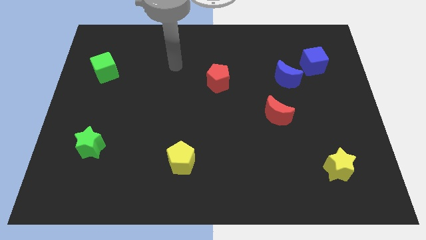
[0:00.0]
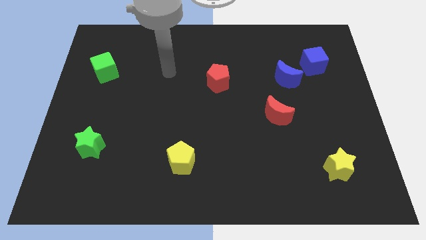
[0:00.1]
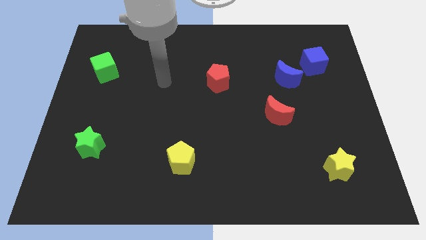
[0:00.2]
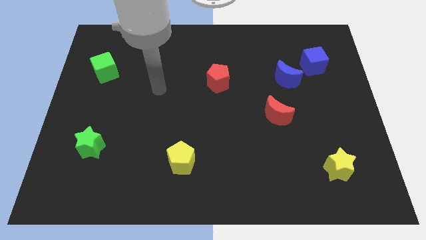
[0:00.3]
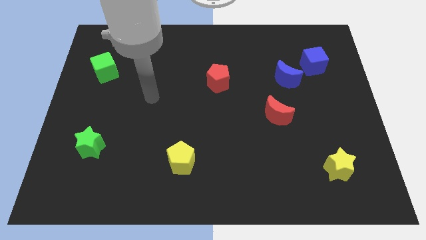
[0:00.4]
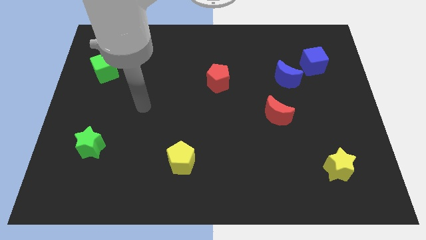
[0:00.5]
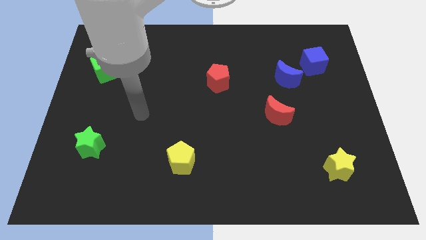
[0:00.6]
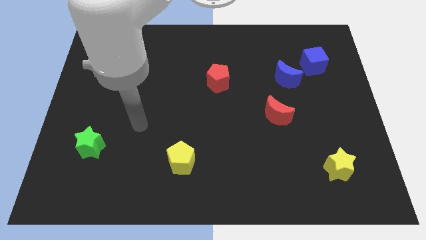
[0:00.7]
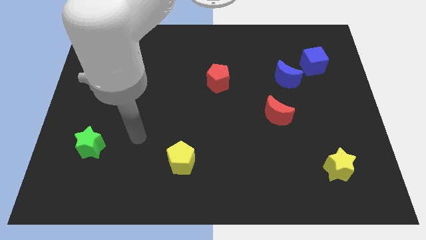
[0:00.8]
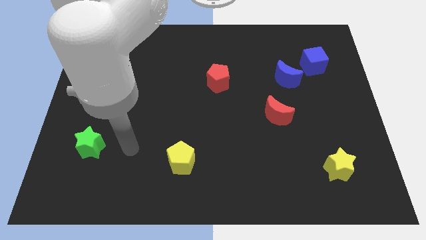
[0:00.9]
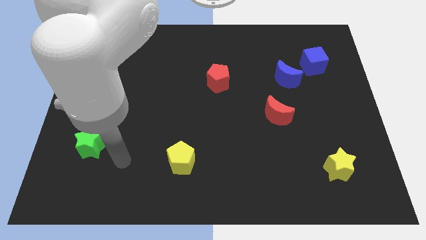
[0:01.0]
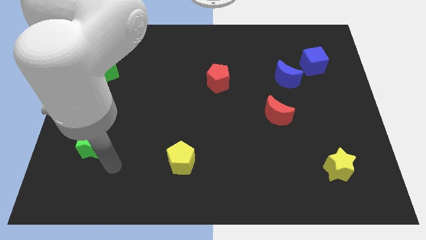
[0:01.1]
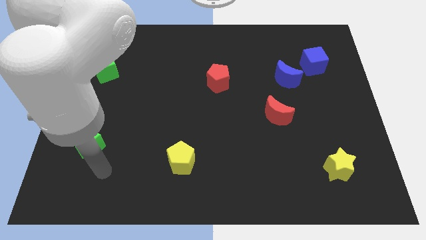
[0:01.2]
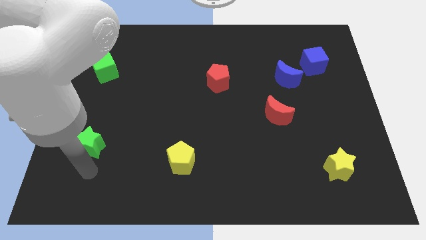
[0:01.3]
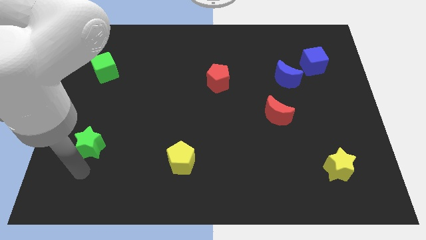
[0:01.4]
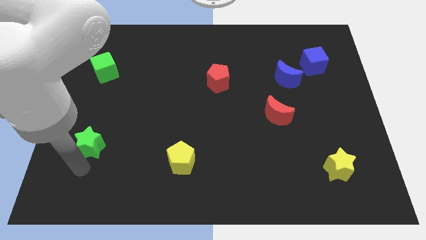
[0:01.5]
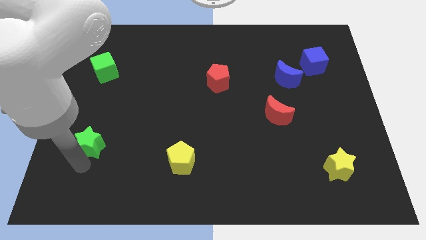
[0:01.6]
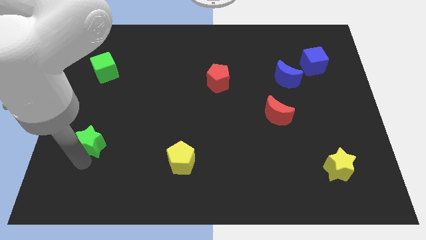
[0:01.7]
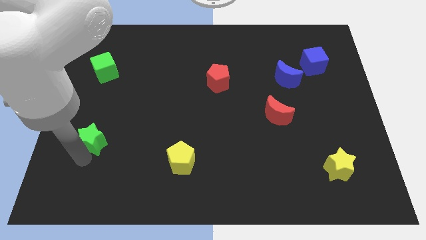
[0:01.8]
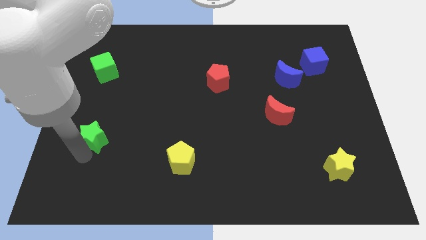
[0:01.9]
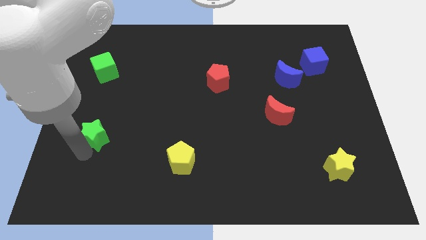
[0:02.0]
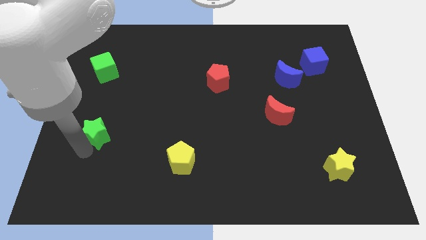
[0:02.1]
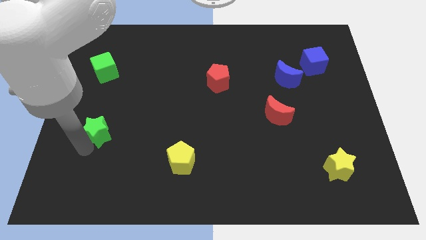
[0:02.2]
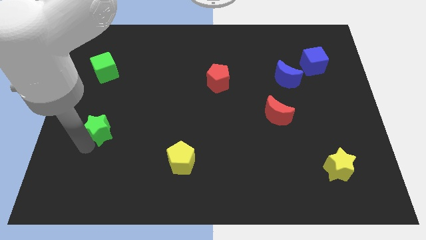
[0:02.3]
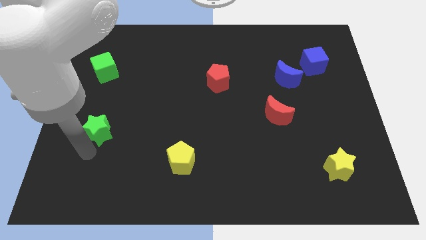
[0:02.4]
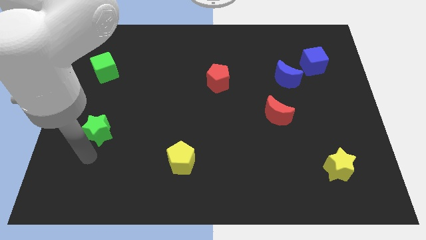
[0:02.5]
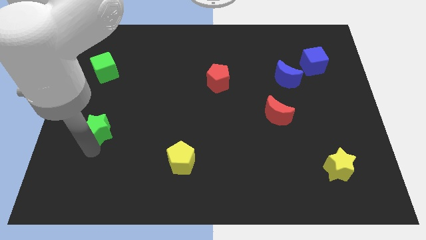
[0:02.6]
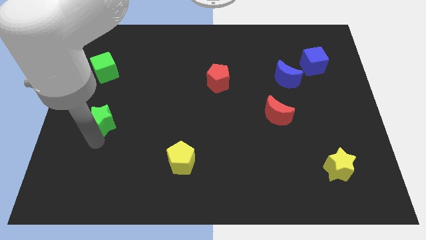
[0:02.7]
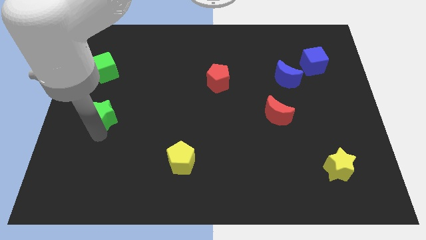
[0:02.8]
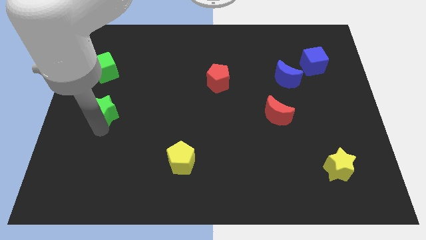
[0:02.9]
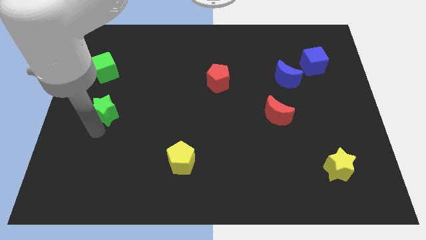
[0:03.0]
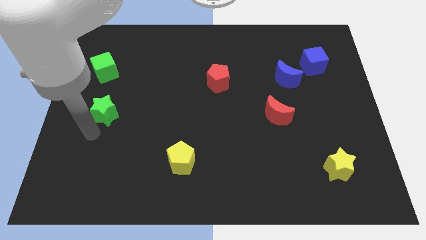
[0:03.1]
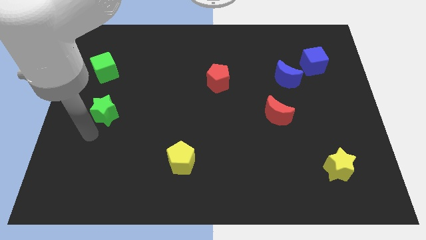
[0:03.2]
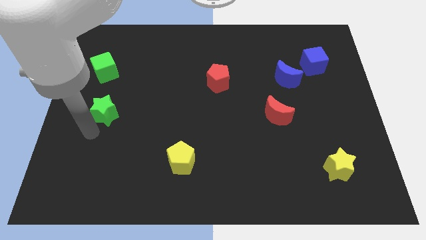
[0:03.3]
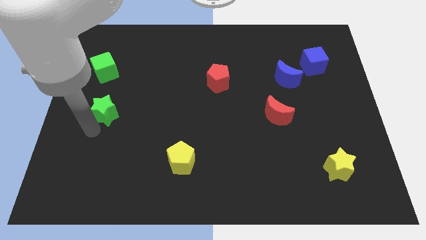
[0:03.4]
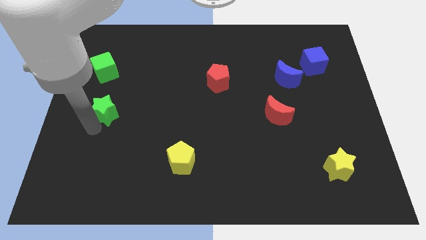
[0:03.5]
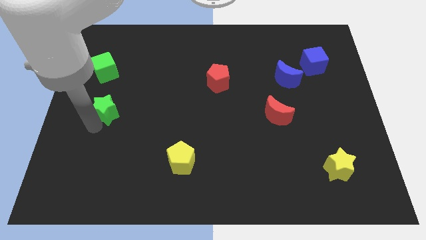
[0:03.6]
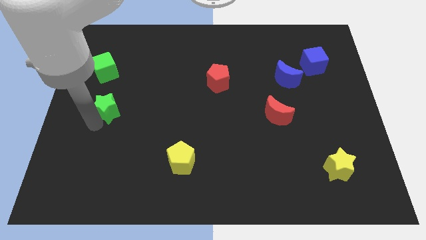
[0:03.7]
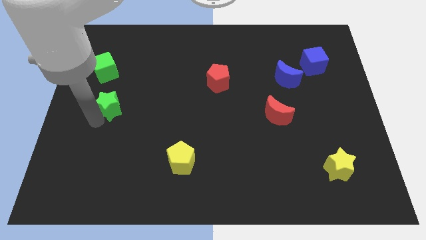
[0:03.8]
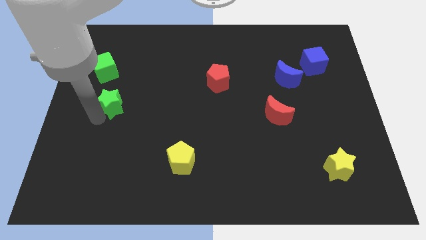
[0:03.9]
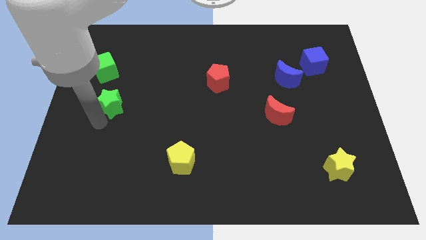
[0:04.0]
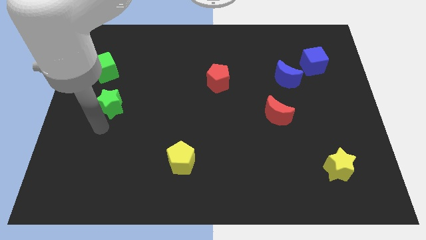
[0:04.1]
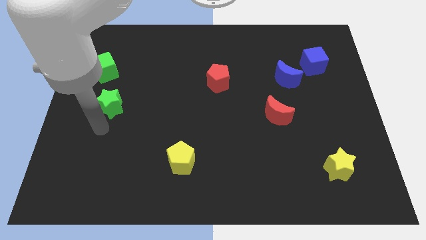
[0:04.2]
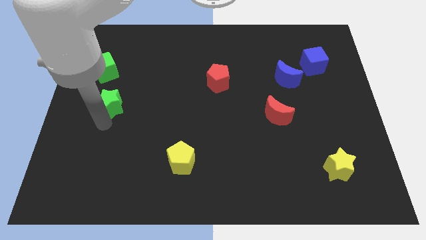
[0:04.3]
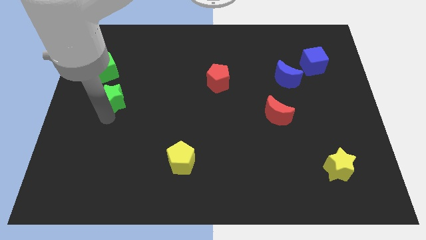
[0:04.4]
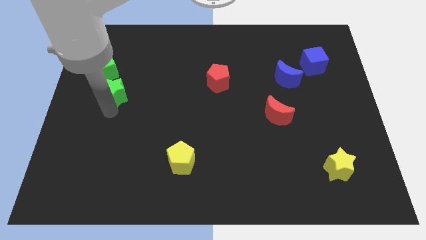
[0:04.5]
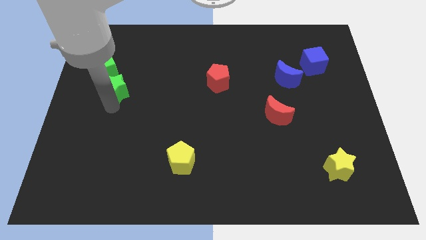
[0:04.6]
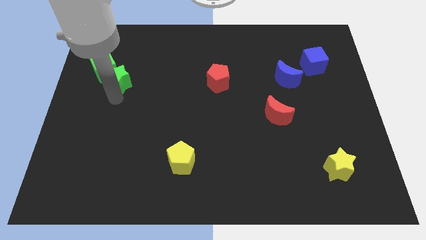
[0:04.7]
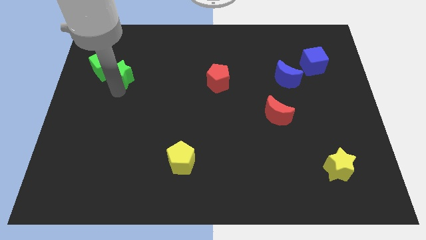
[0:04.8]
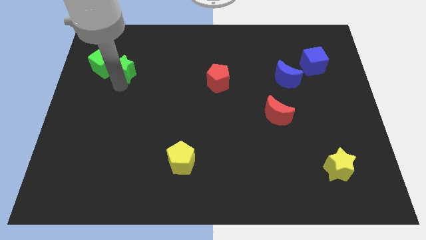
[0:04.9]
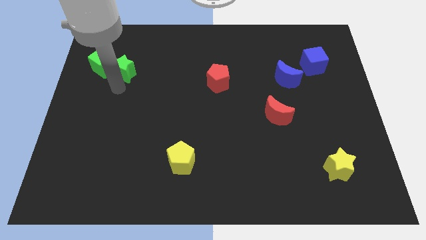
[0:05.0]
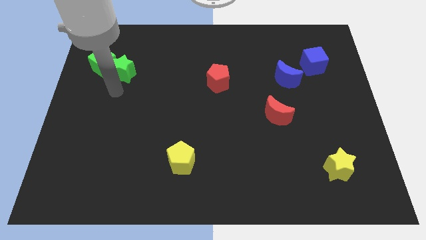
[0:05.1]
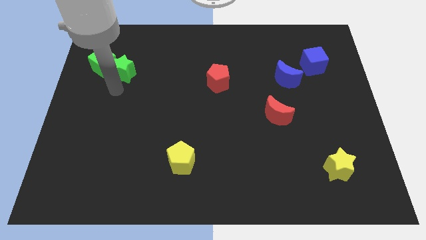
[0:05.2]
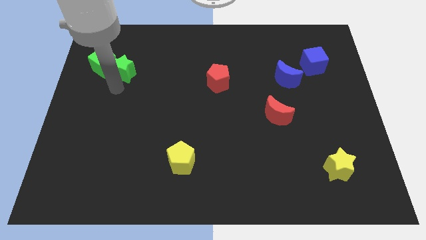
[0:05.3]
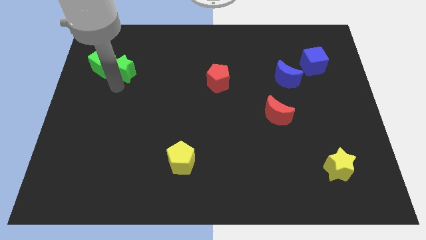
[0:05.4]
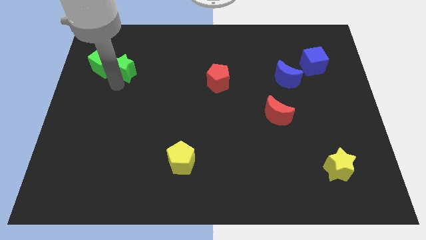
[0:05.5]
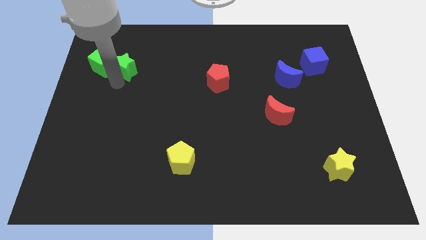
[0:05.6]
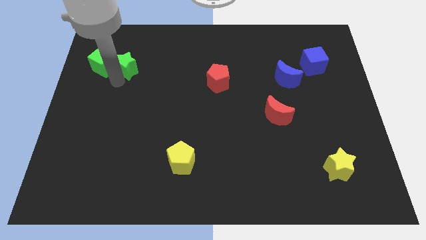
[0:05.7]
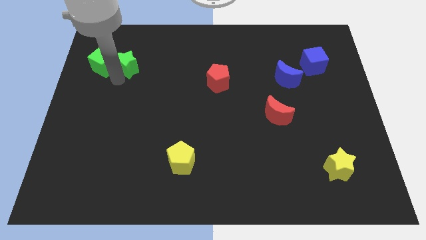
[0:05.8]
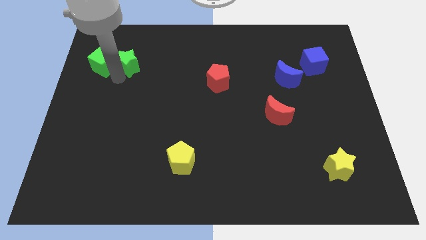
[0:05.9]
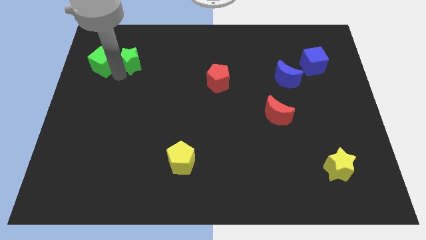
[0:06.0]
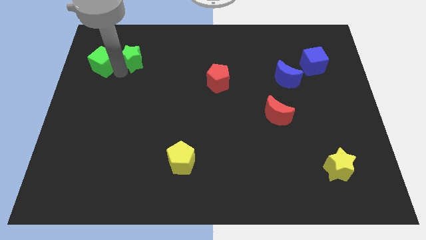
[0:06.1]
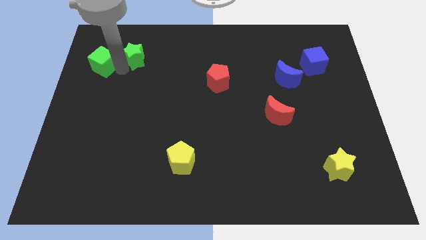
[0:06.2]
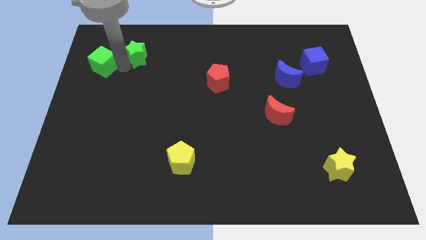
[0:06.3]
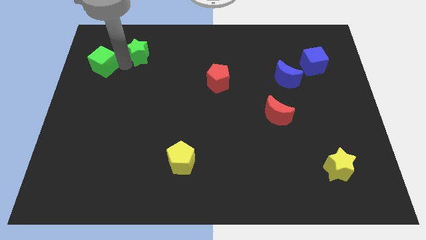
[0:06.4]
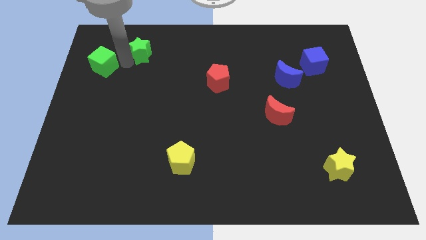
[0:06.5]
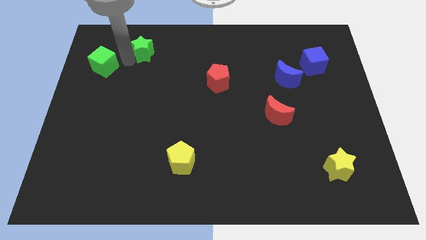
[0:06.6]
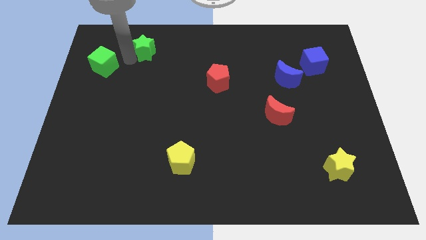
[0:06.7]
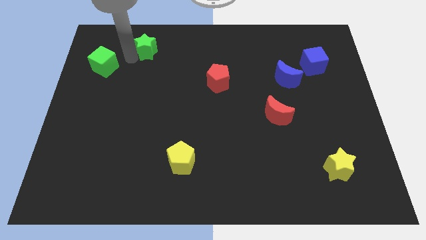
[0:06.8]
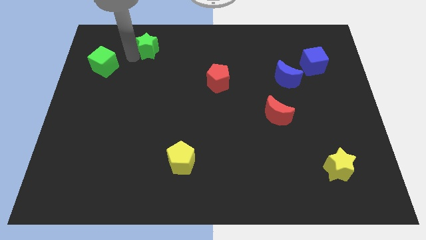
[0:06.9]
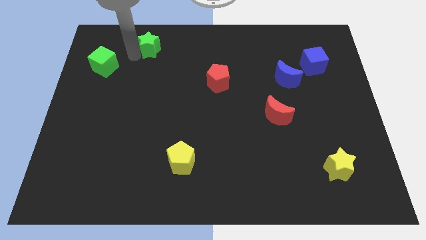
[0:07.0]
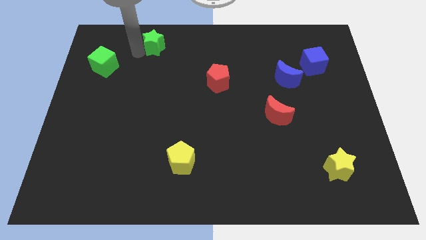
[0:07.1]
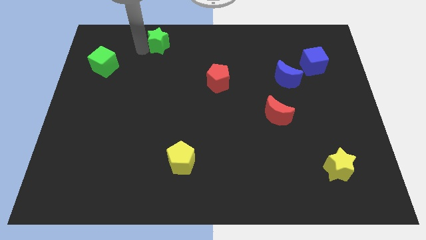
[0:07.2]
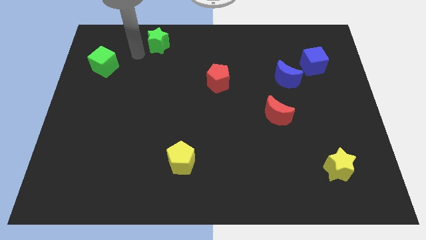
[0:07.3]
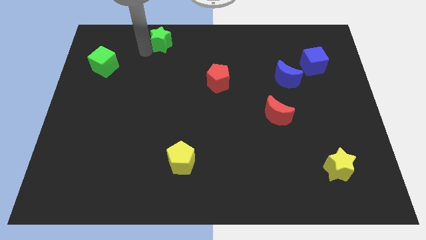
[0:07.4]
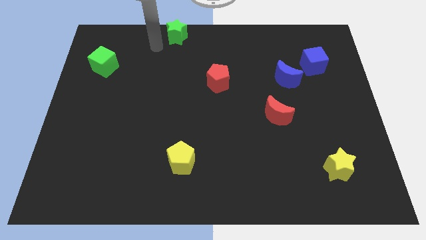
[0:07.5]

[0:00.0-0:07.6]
put the green star to the top
